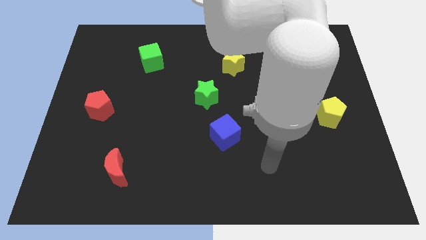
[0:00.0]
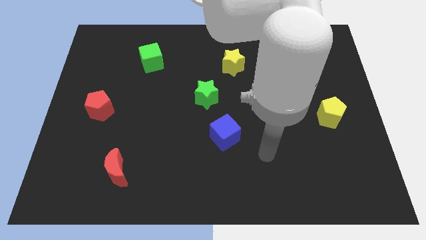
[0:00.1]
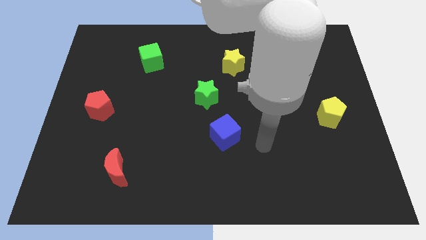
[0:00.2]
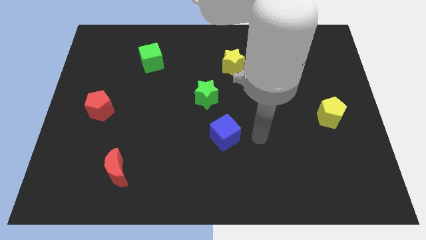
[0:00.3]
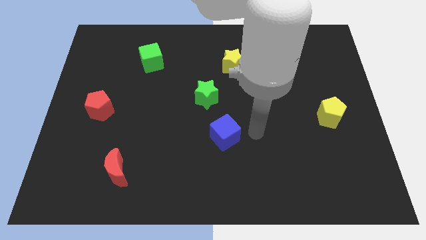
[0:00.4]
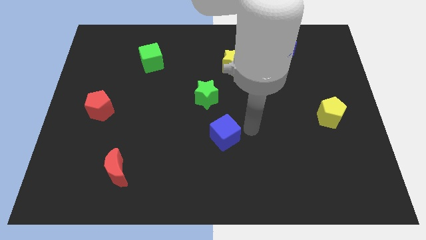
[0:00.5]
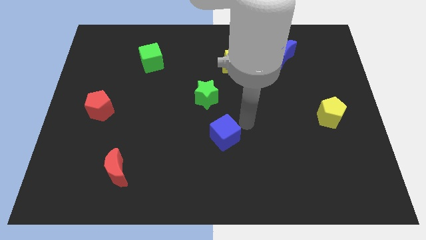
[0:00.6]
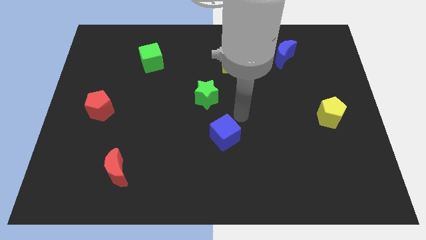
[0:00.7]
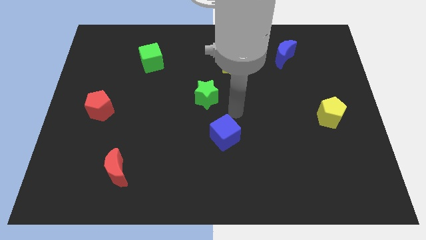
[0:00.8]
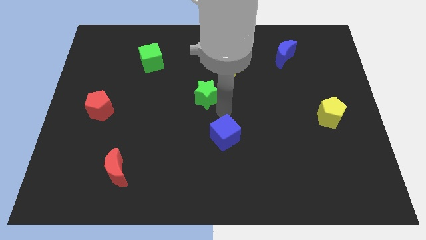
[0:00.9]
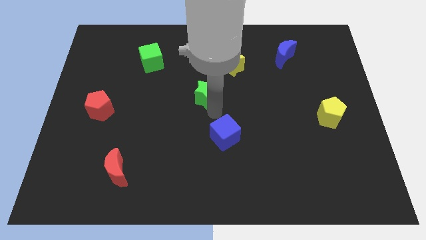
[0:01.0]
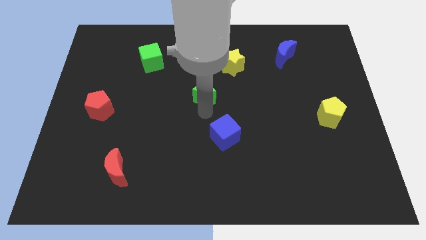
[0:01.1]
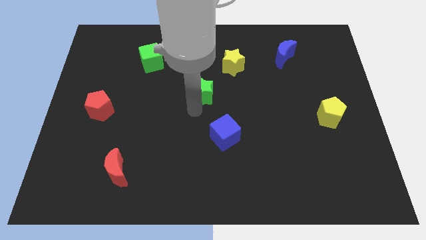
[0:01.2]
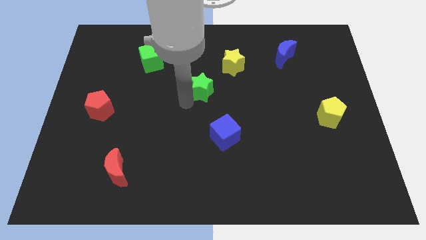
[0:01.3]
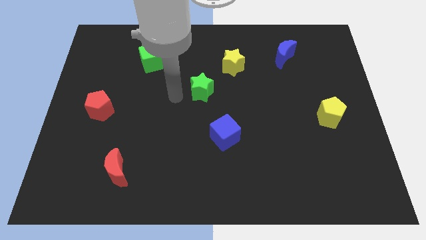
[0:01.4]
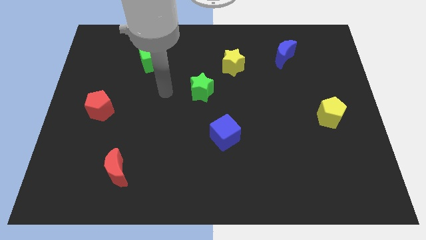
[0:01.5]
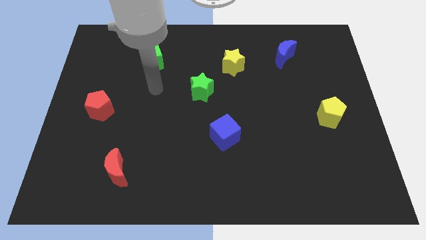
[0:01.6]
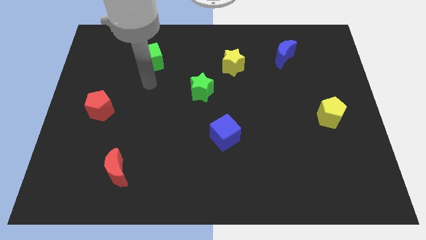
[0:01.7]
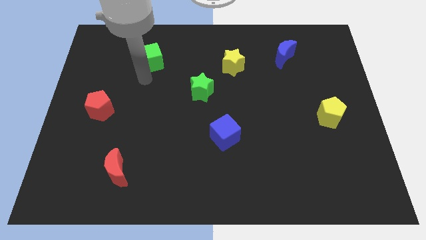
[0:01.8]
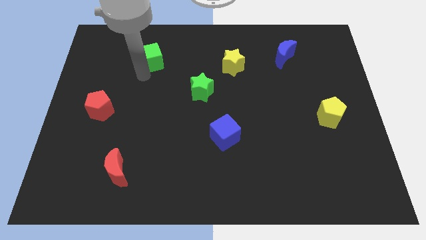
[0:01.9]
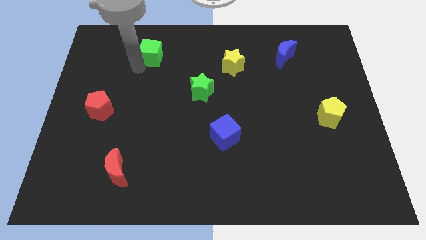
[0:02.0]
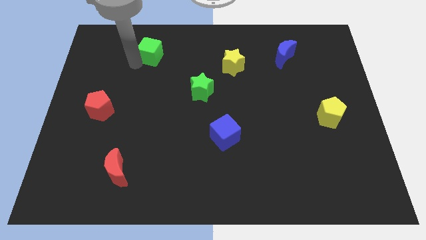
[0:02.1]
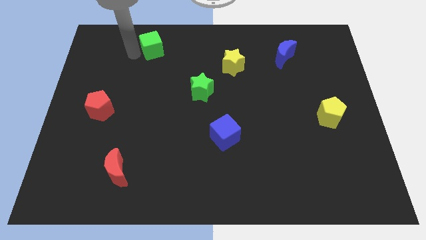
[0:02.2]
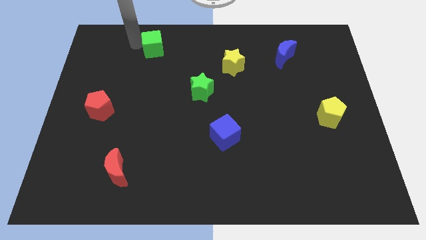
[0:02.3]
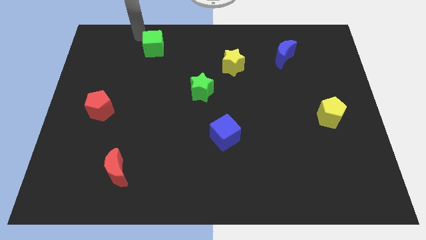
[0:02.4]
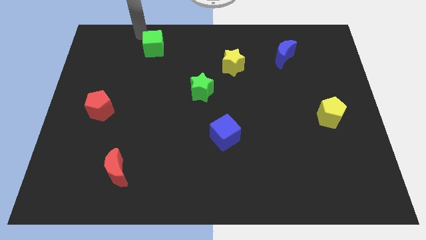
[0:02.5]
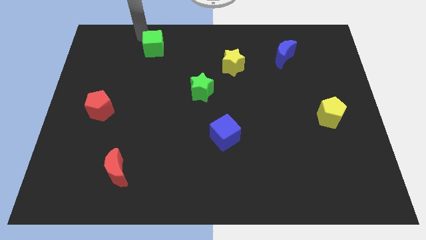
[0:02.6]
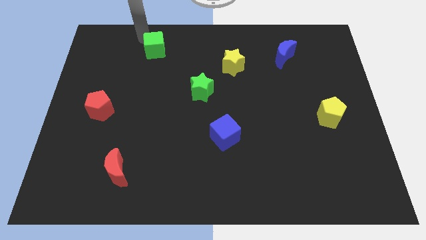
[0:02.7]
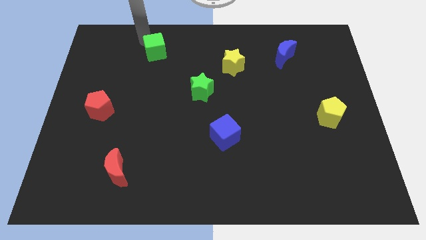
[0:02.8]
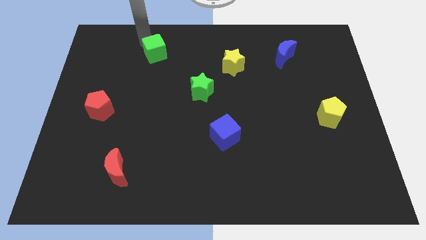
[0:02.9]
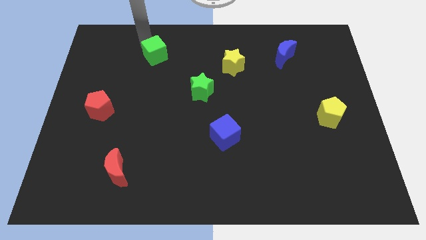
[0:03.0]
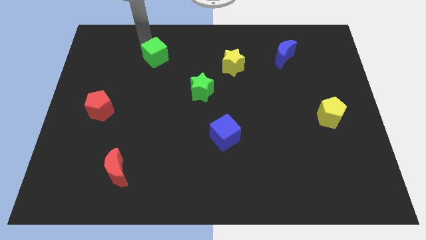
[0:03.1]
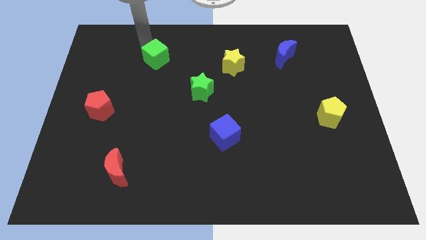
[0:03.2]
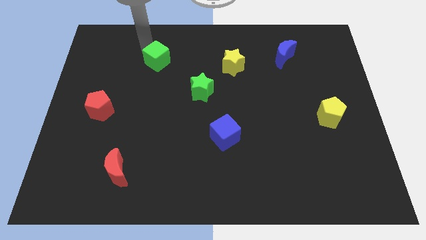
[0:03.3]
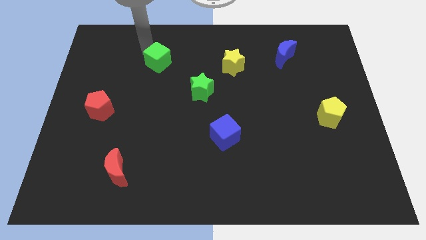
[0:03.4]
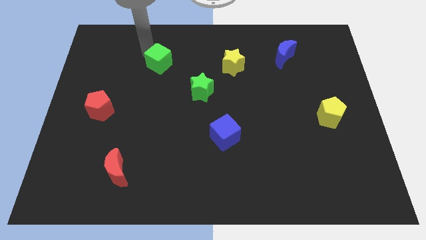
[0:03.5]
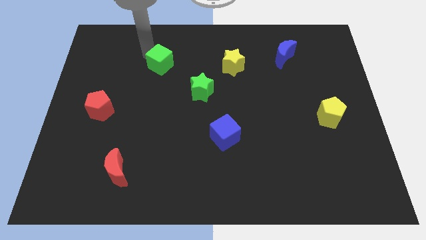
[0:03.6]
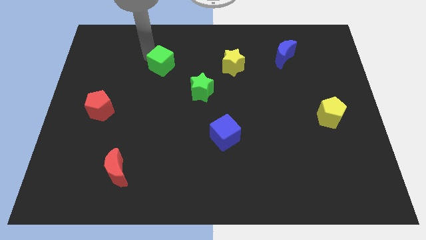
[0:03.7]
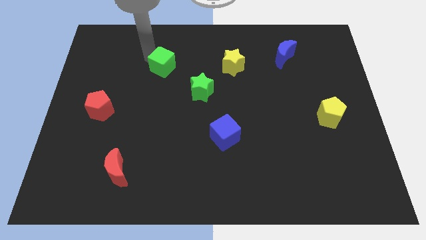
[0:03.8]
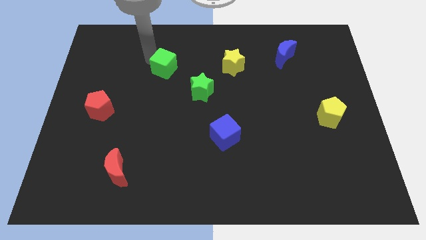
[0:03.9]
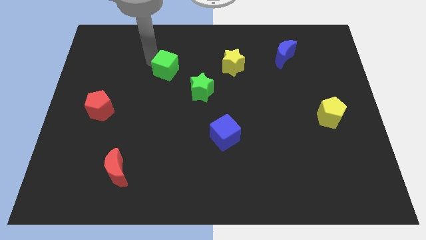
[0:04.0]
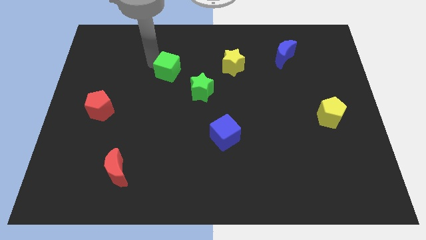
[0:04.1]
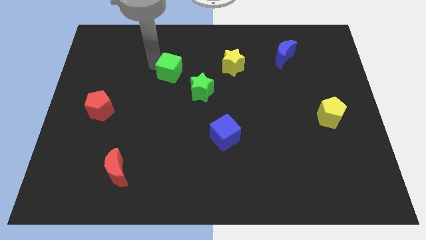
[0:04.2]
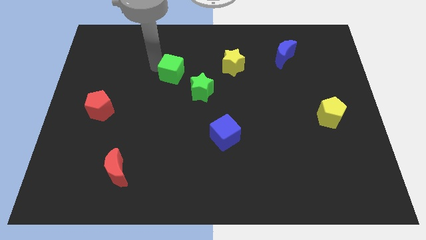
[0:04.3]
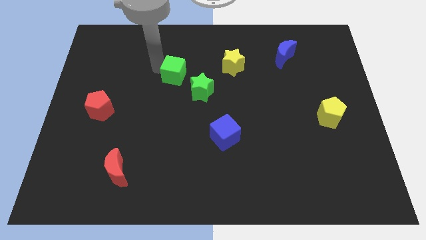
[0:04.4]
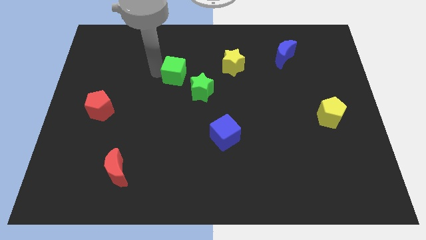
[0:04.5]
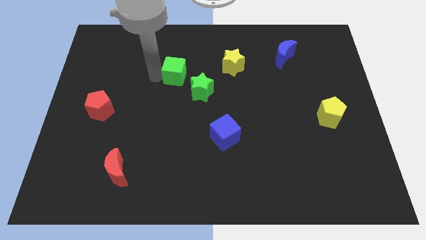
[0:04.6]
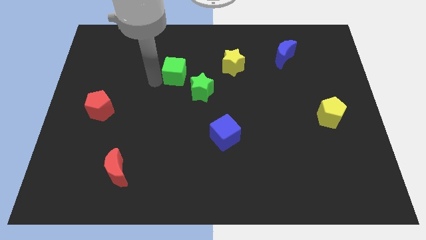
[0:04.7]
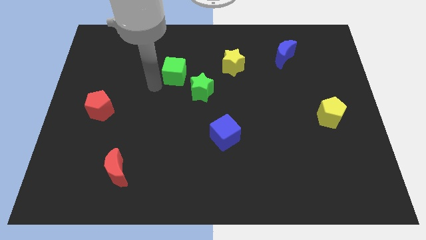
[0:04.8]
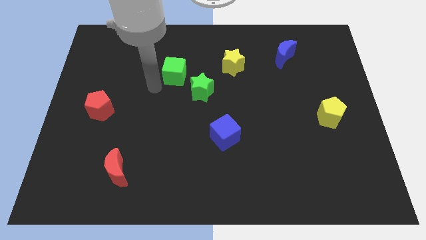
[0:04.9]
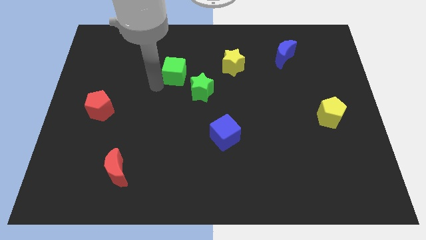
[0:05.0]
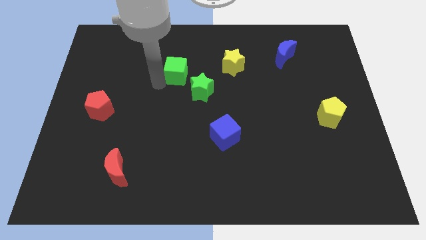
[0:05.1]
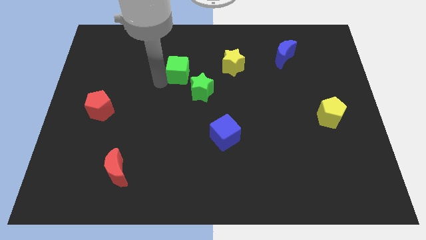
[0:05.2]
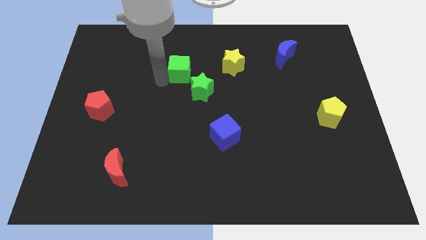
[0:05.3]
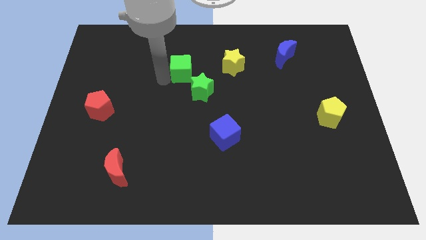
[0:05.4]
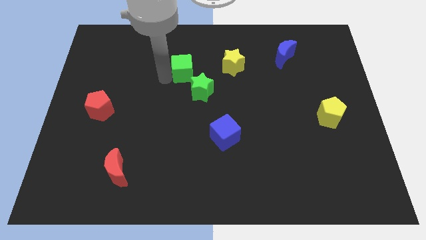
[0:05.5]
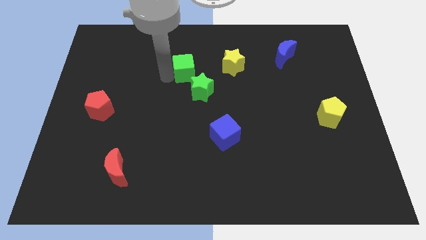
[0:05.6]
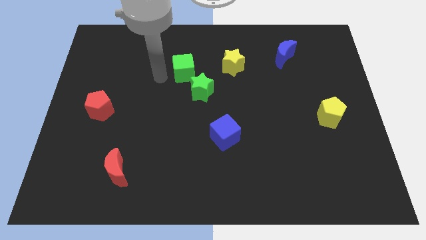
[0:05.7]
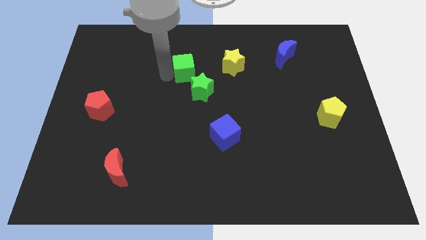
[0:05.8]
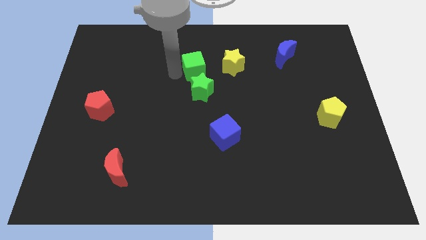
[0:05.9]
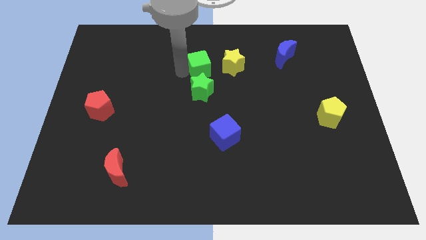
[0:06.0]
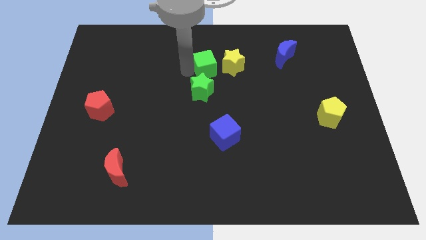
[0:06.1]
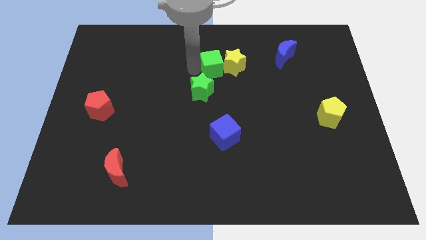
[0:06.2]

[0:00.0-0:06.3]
slide the green cube close to the yellow star

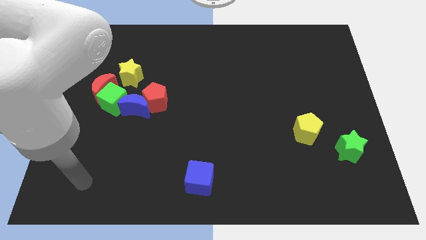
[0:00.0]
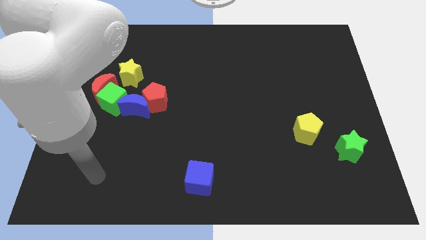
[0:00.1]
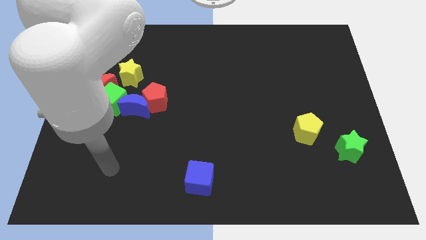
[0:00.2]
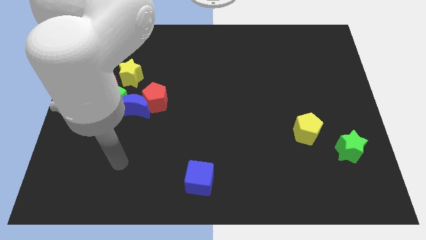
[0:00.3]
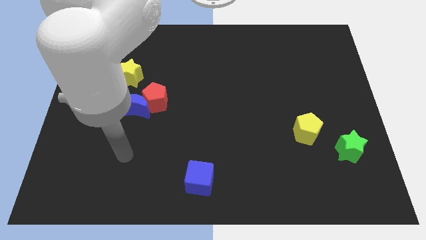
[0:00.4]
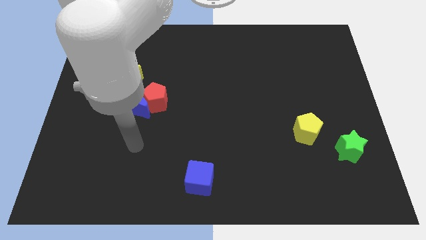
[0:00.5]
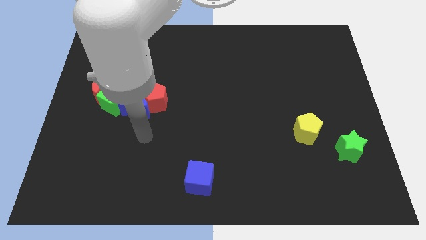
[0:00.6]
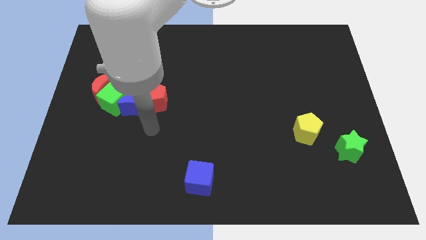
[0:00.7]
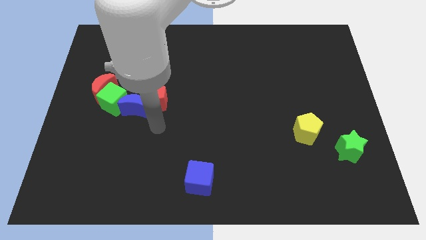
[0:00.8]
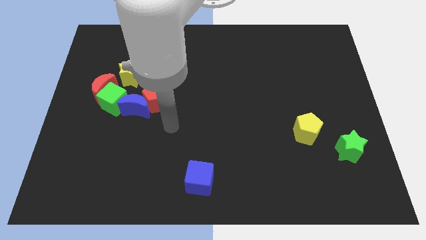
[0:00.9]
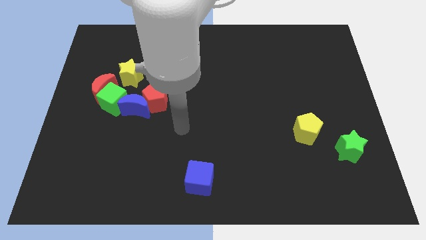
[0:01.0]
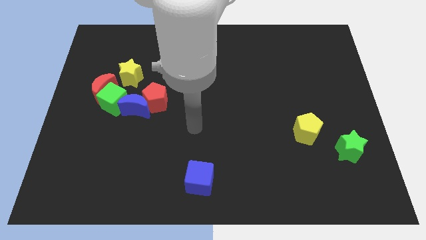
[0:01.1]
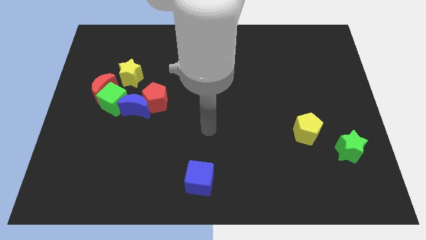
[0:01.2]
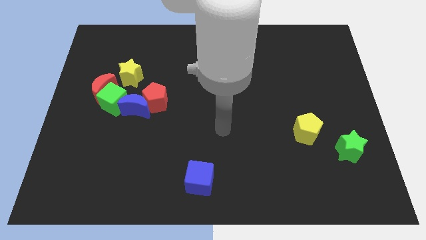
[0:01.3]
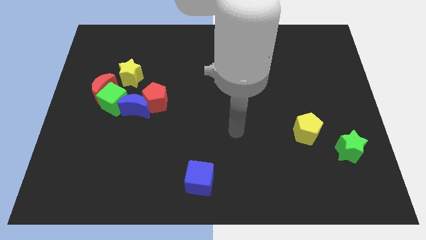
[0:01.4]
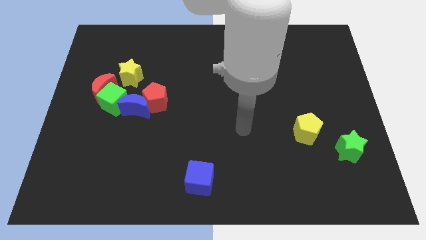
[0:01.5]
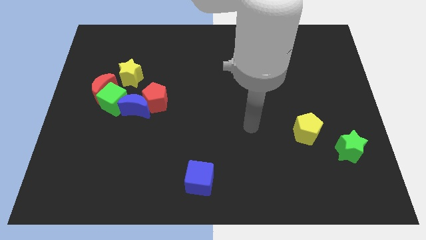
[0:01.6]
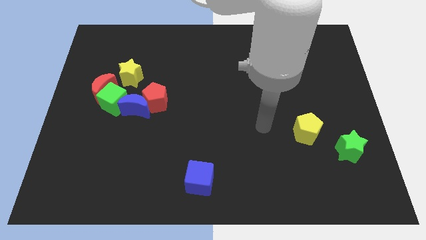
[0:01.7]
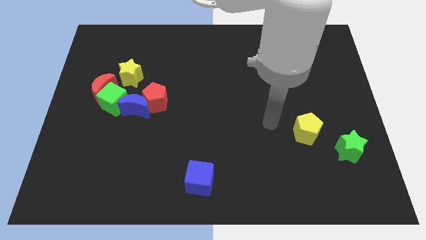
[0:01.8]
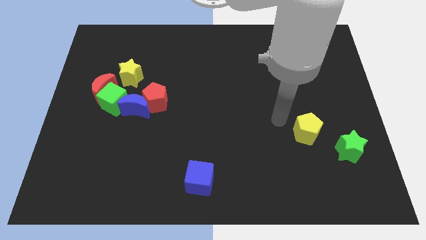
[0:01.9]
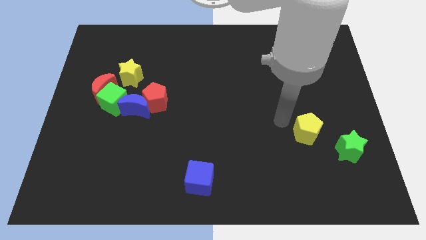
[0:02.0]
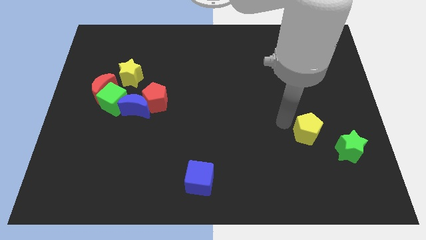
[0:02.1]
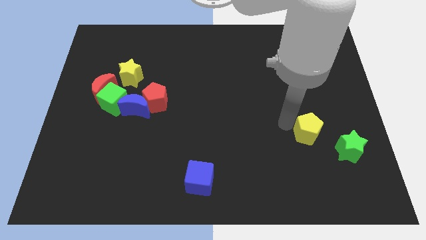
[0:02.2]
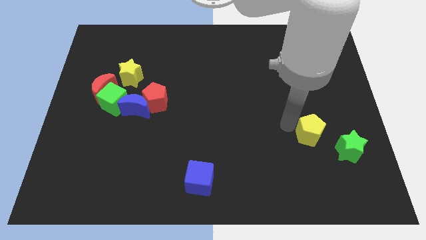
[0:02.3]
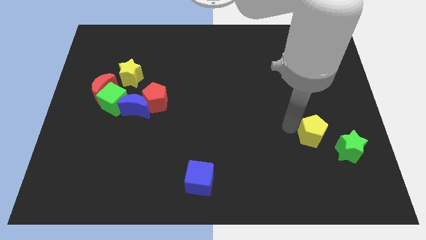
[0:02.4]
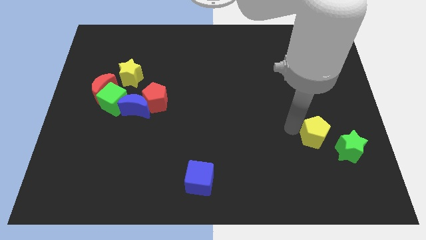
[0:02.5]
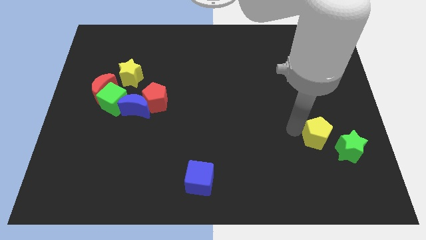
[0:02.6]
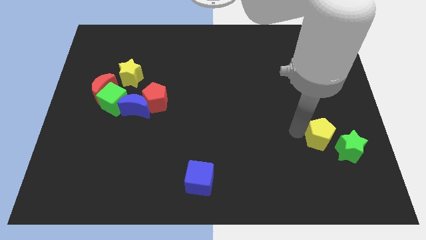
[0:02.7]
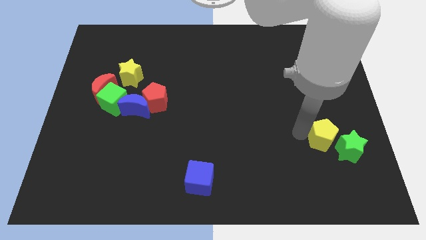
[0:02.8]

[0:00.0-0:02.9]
slide the yellow pentagon to the green star
